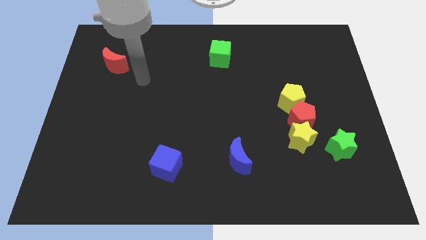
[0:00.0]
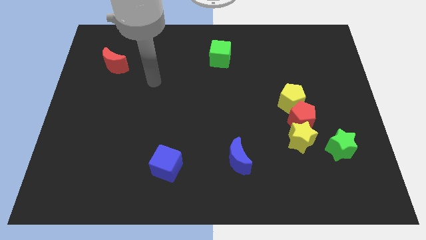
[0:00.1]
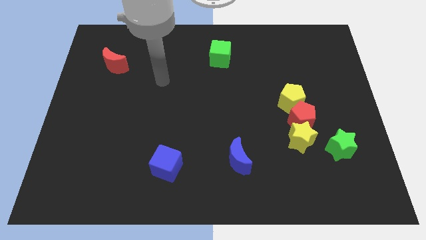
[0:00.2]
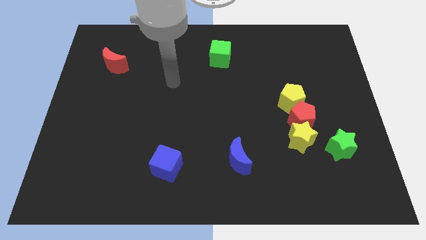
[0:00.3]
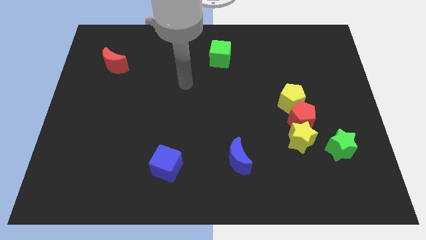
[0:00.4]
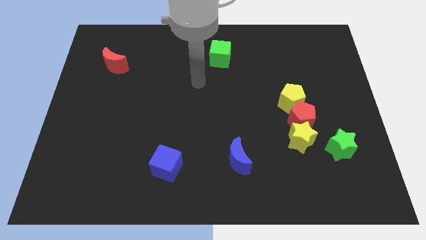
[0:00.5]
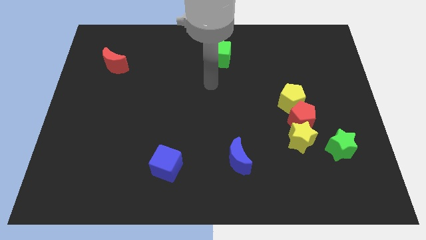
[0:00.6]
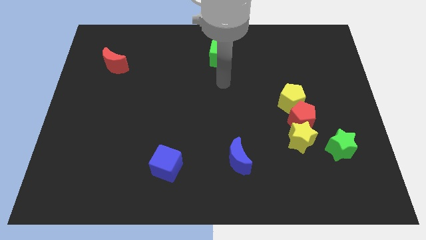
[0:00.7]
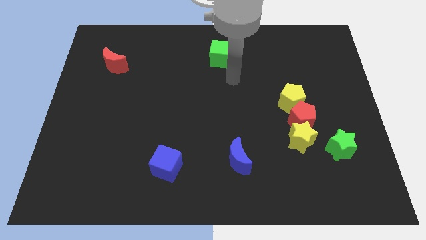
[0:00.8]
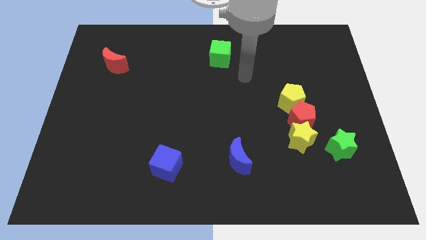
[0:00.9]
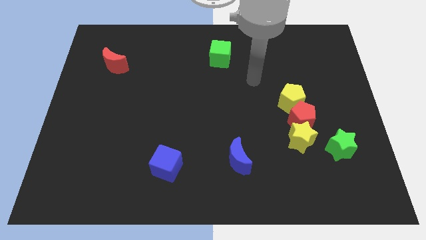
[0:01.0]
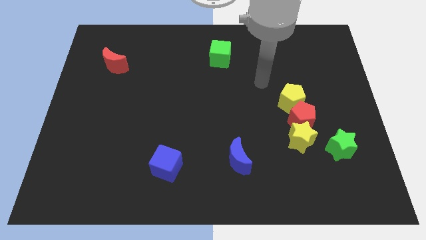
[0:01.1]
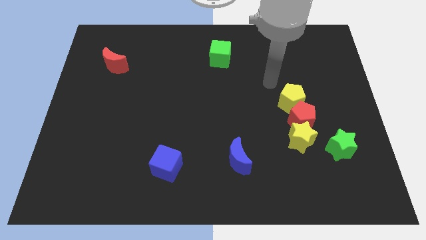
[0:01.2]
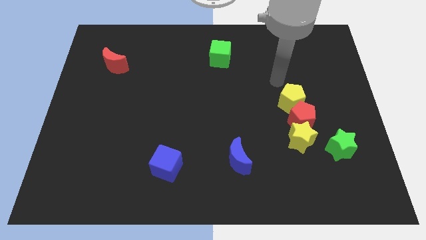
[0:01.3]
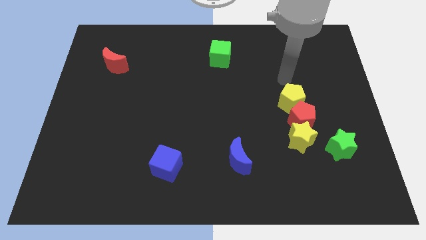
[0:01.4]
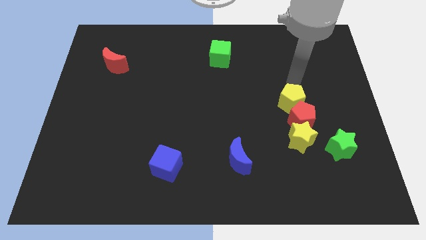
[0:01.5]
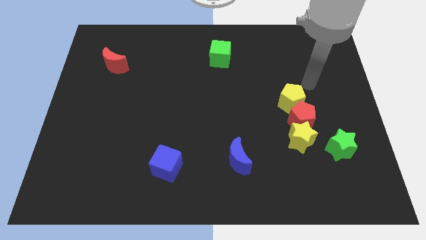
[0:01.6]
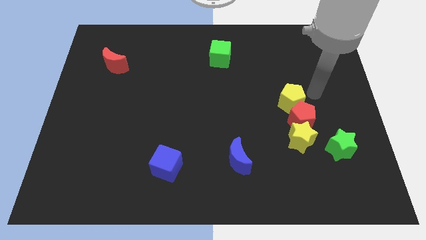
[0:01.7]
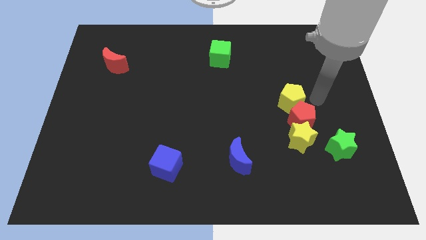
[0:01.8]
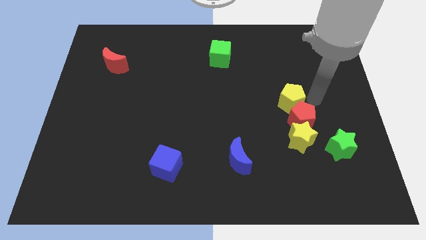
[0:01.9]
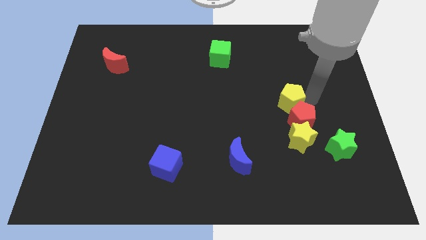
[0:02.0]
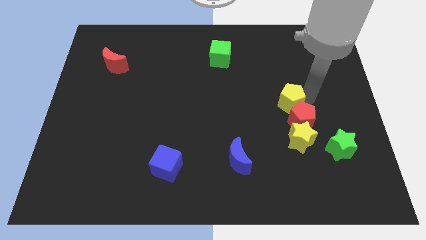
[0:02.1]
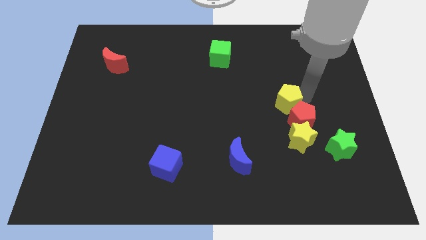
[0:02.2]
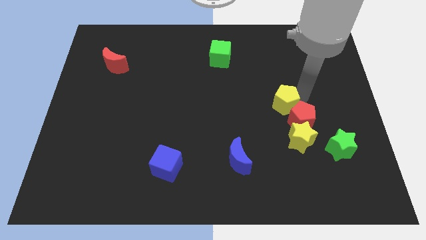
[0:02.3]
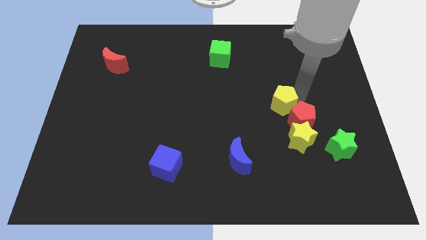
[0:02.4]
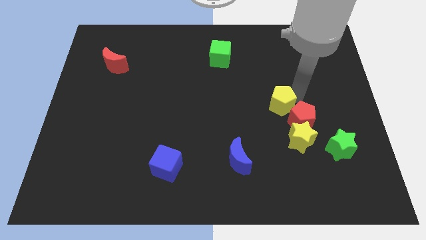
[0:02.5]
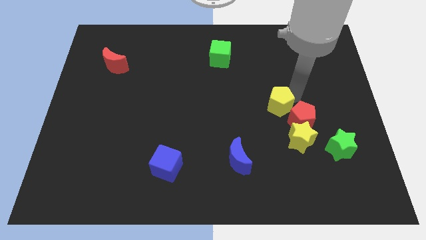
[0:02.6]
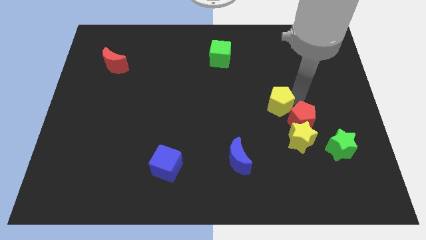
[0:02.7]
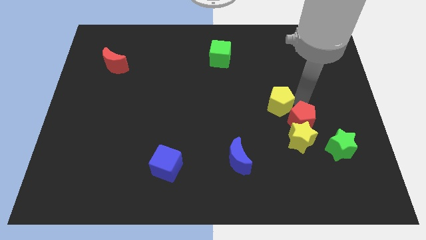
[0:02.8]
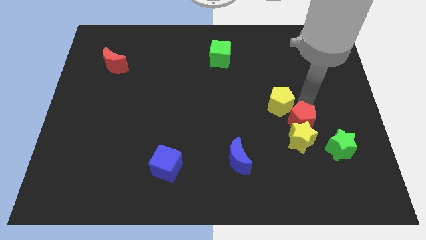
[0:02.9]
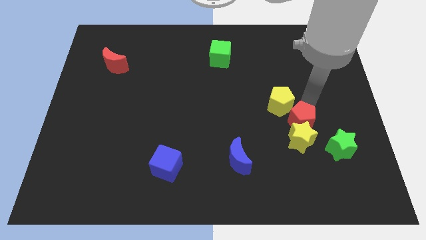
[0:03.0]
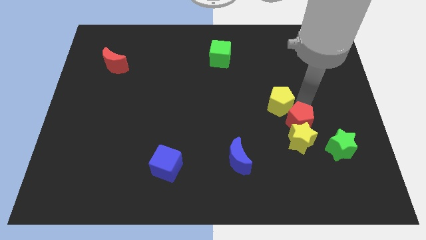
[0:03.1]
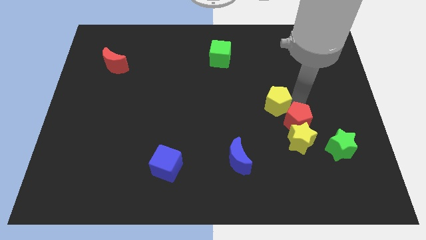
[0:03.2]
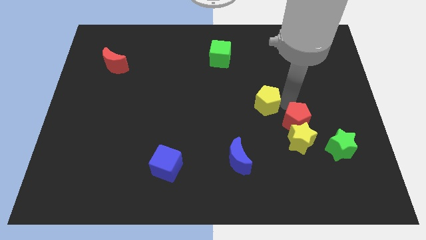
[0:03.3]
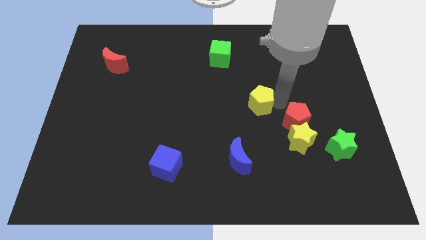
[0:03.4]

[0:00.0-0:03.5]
move the yellow pentagon left somewhat

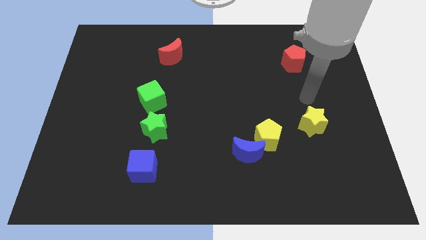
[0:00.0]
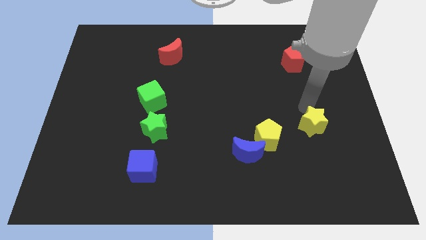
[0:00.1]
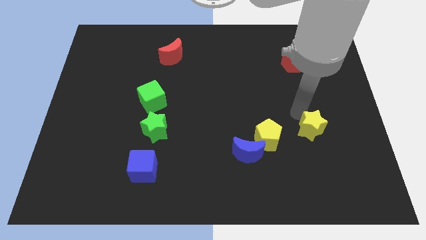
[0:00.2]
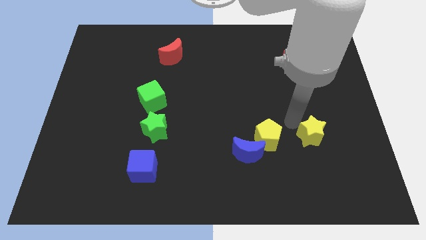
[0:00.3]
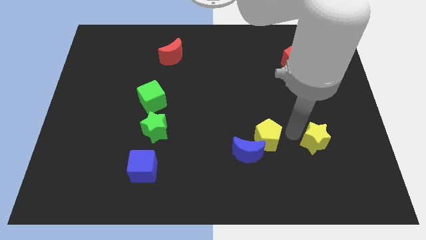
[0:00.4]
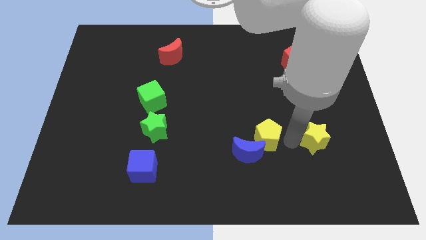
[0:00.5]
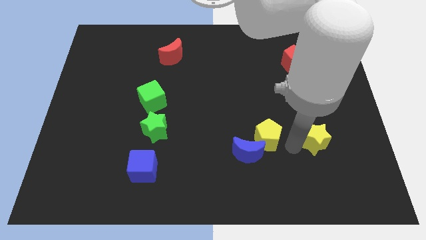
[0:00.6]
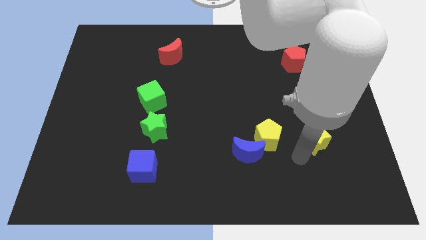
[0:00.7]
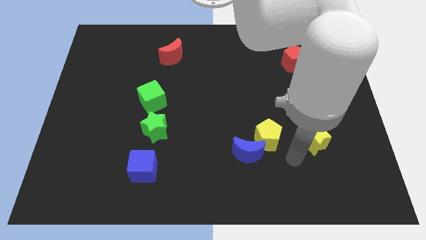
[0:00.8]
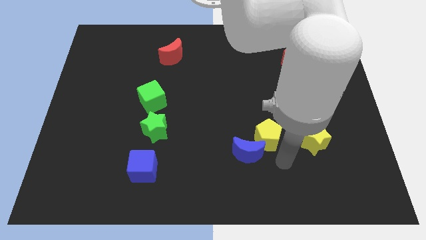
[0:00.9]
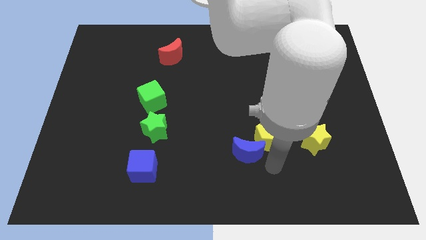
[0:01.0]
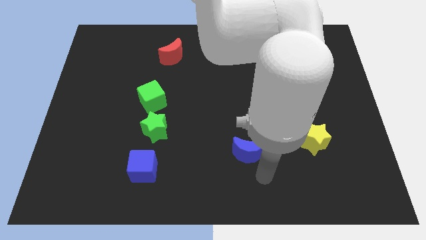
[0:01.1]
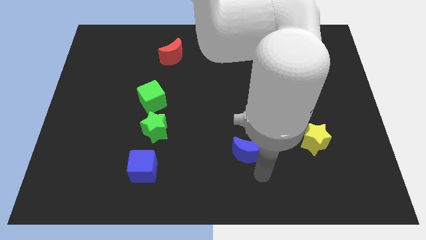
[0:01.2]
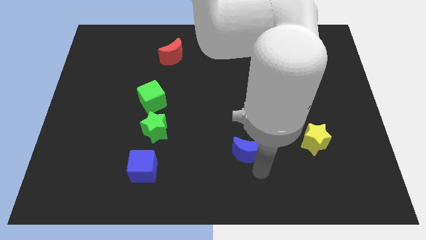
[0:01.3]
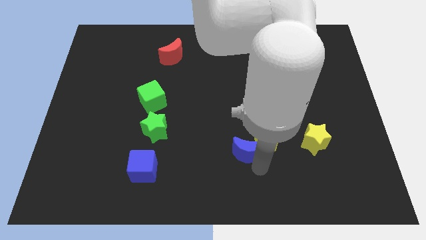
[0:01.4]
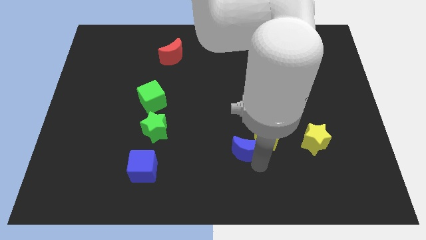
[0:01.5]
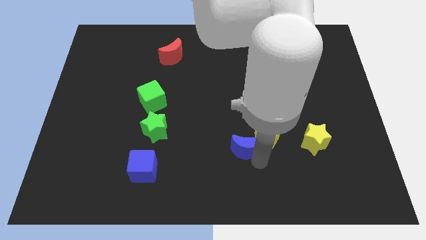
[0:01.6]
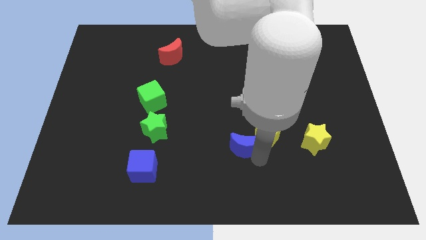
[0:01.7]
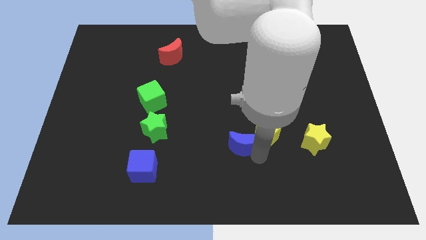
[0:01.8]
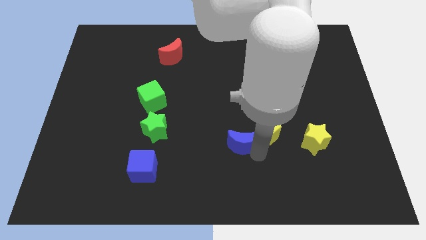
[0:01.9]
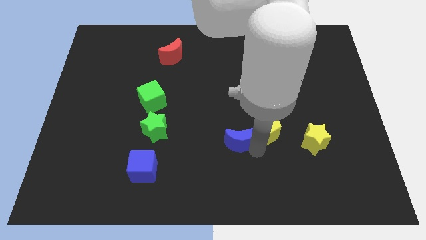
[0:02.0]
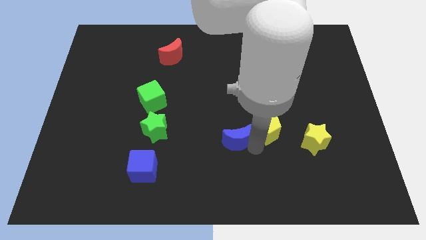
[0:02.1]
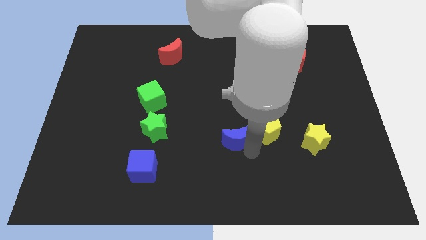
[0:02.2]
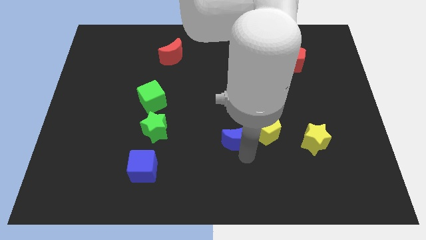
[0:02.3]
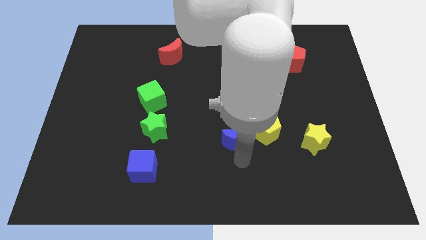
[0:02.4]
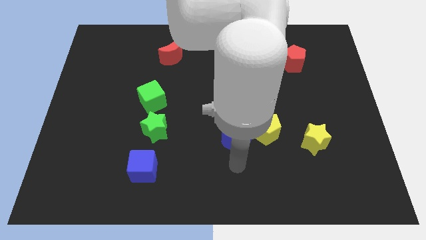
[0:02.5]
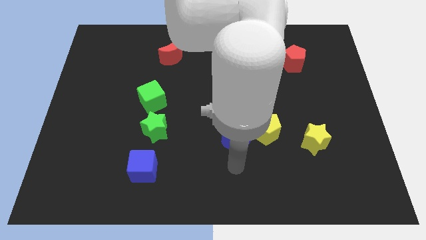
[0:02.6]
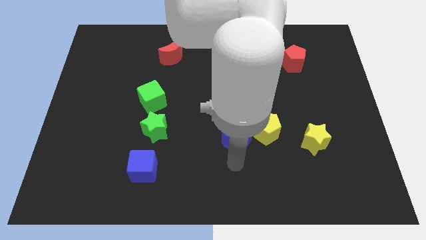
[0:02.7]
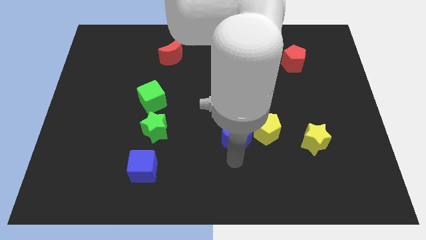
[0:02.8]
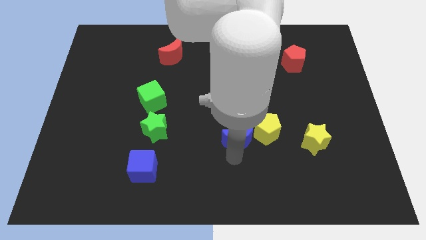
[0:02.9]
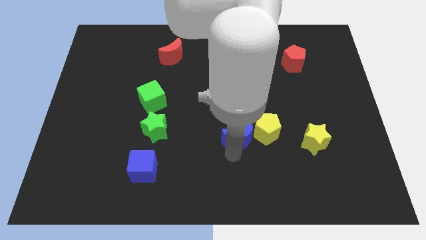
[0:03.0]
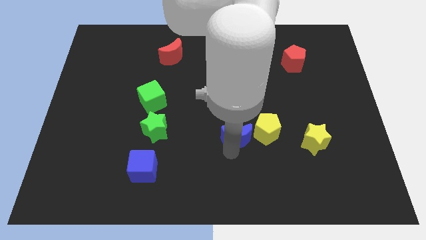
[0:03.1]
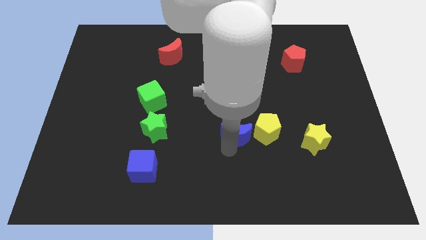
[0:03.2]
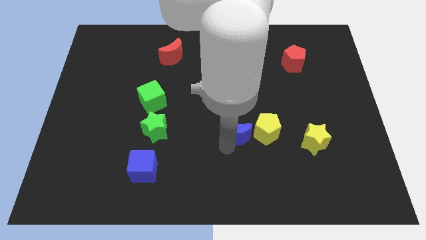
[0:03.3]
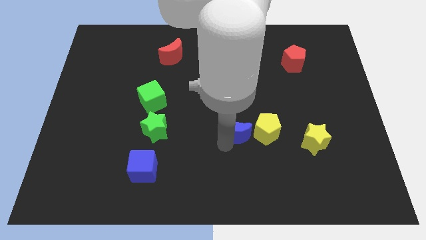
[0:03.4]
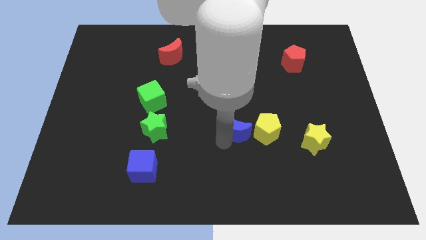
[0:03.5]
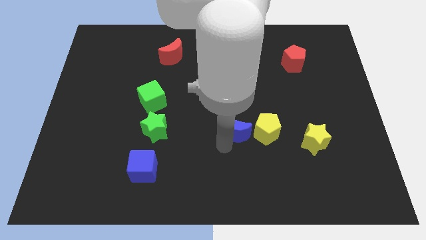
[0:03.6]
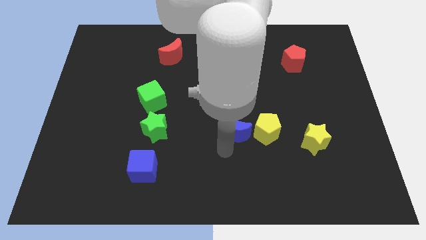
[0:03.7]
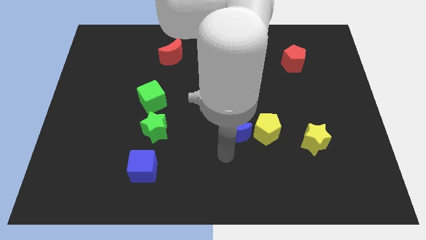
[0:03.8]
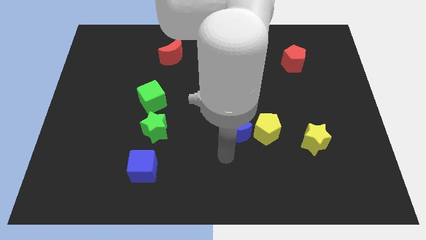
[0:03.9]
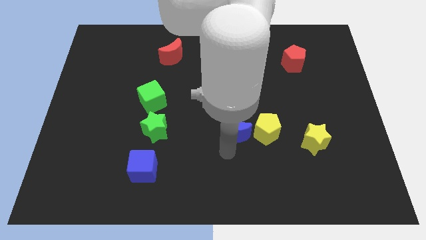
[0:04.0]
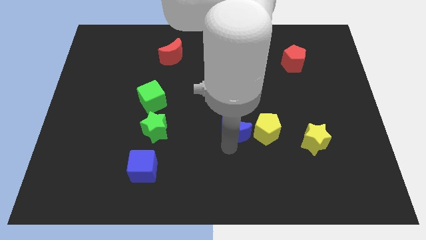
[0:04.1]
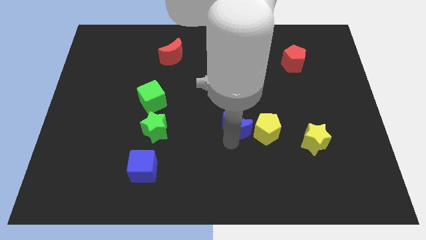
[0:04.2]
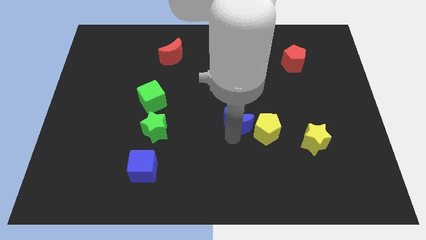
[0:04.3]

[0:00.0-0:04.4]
slightly push the blue moon upwards

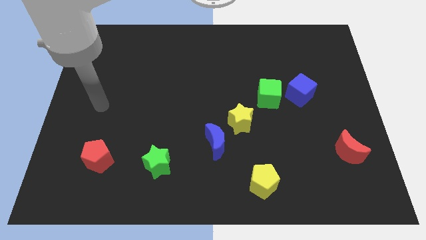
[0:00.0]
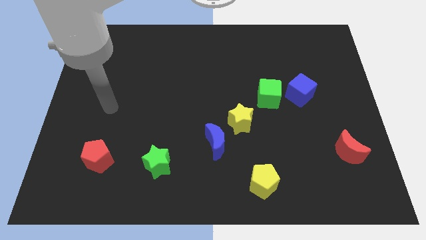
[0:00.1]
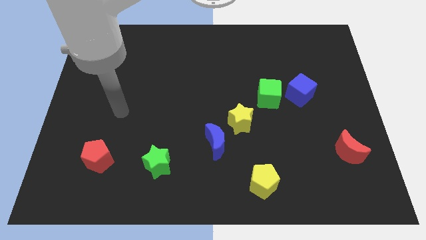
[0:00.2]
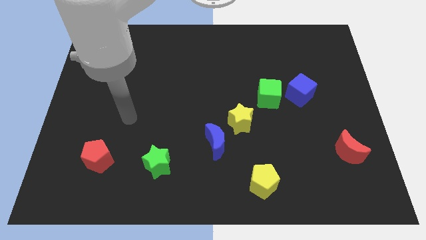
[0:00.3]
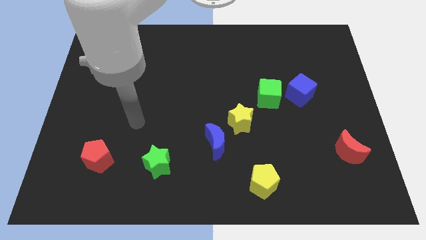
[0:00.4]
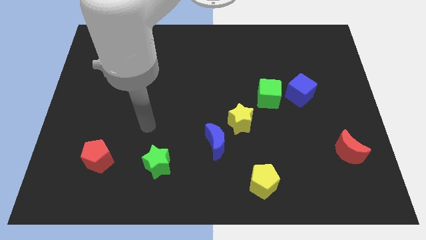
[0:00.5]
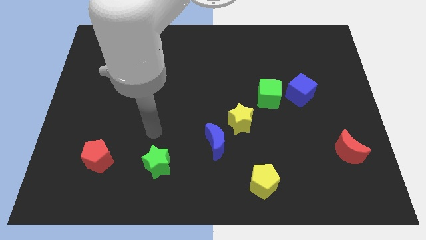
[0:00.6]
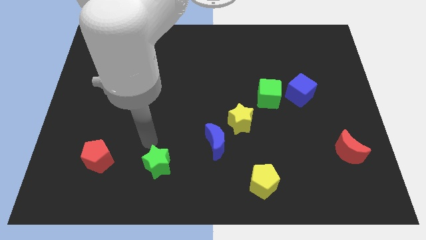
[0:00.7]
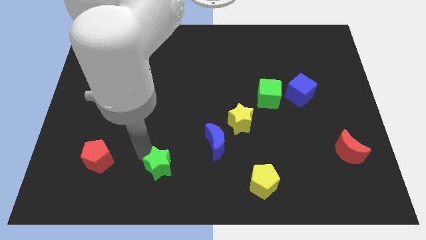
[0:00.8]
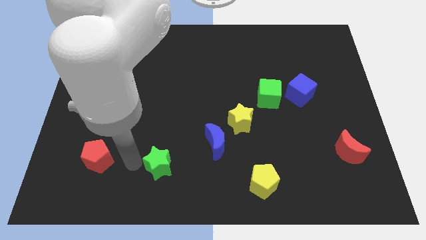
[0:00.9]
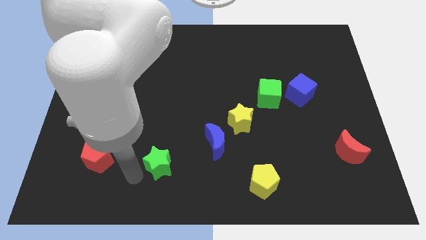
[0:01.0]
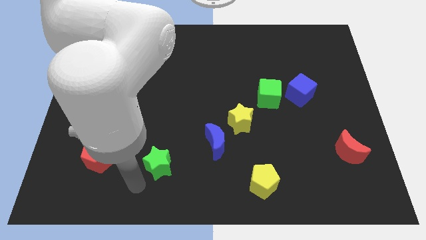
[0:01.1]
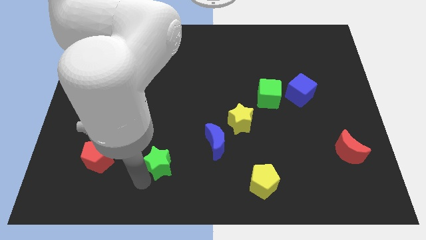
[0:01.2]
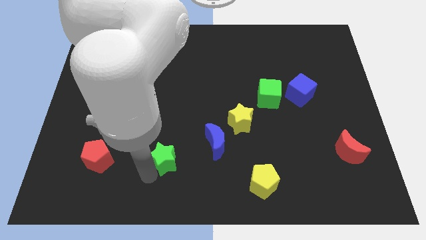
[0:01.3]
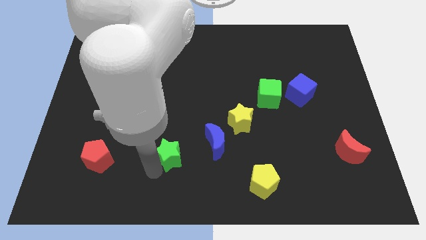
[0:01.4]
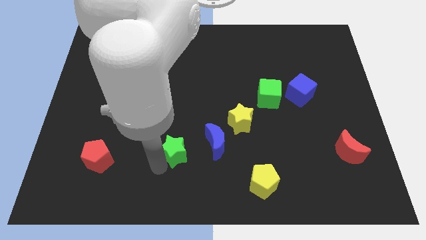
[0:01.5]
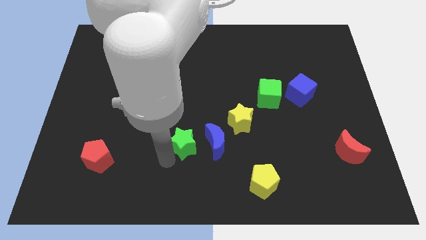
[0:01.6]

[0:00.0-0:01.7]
move the green star upwards and right slightly
